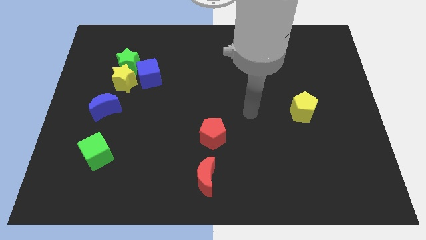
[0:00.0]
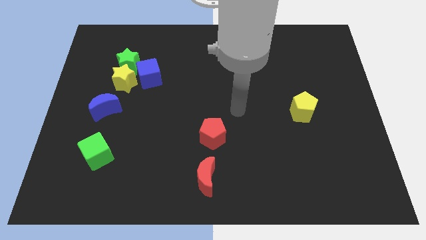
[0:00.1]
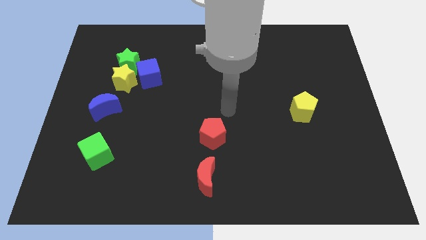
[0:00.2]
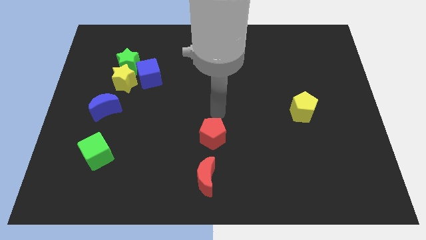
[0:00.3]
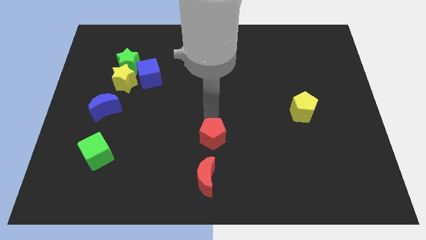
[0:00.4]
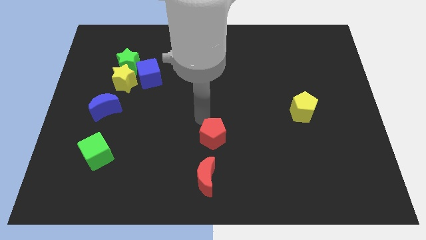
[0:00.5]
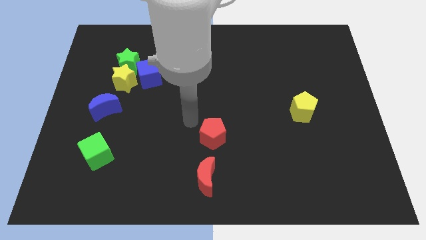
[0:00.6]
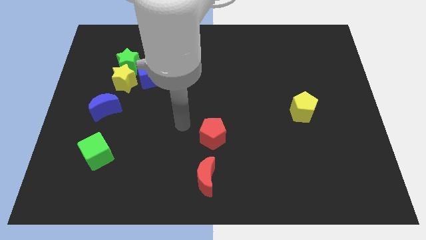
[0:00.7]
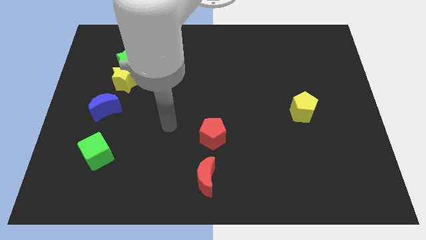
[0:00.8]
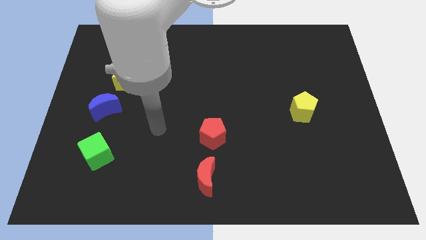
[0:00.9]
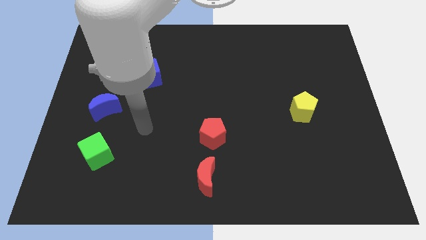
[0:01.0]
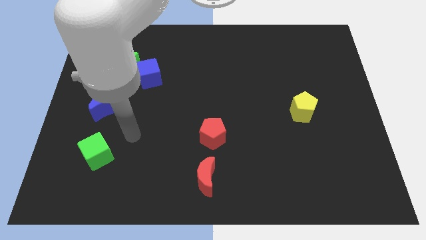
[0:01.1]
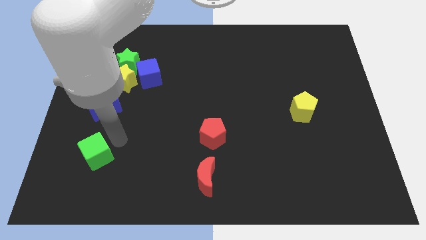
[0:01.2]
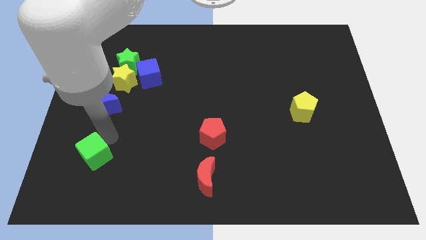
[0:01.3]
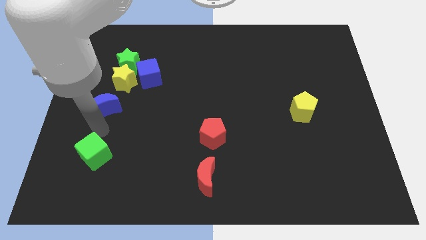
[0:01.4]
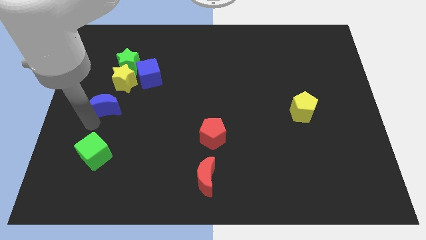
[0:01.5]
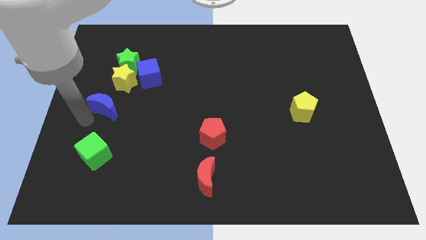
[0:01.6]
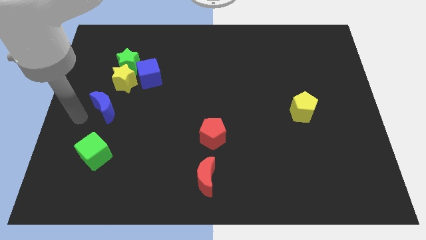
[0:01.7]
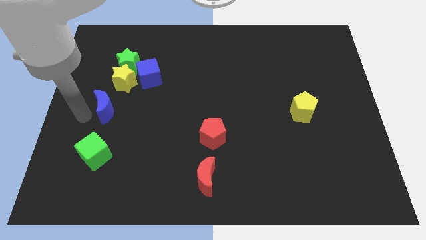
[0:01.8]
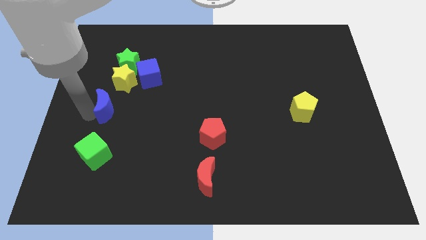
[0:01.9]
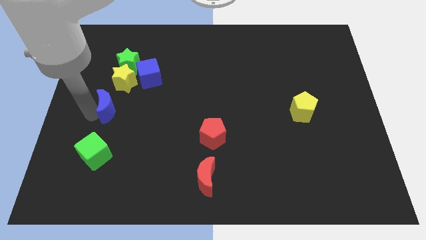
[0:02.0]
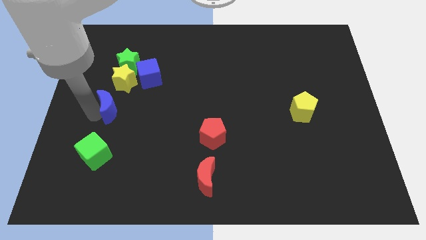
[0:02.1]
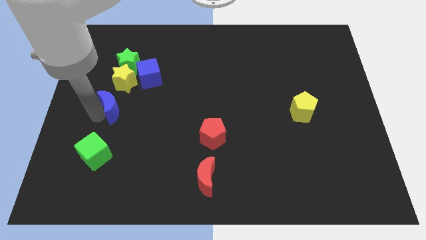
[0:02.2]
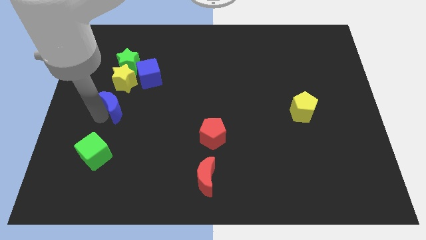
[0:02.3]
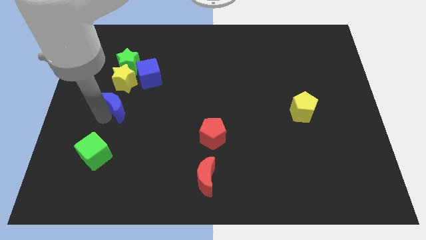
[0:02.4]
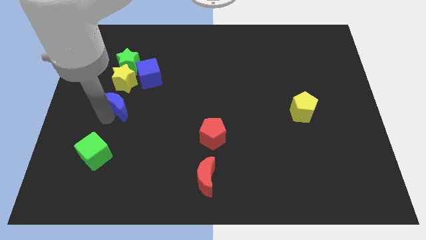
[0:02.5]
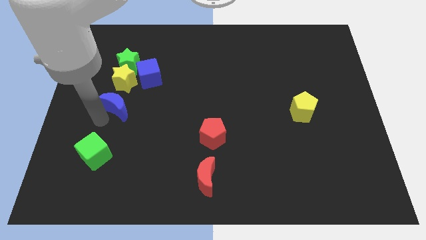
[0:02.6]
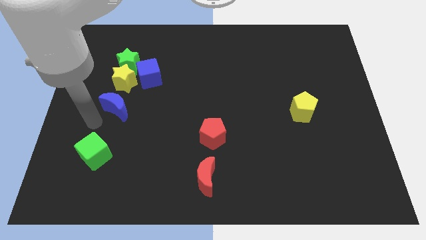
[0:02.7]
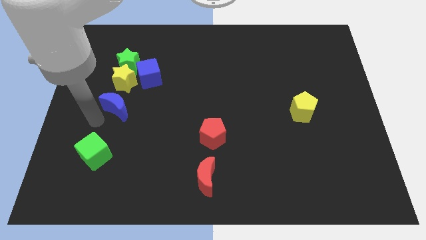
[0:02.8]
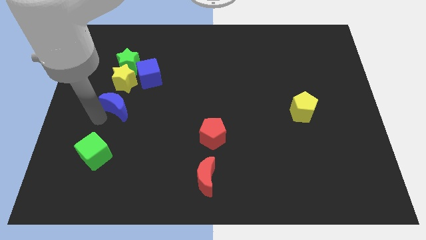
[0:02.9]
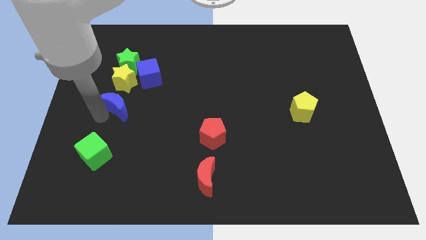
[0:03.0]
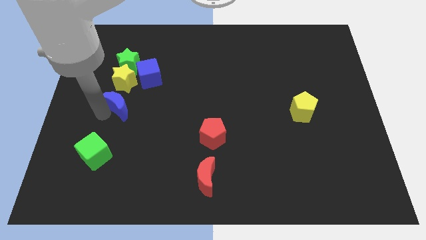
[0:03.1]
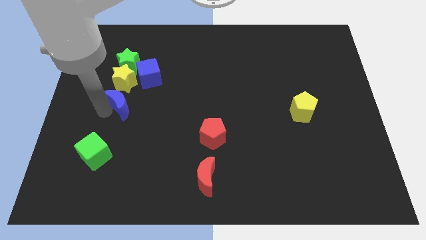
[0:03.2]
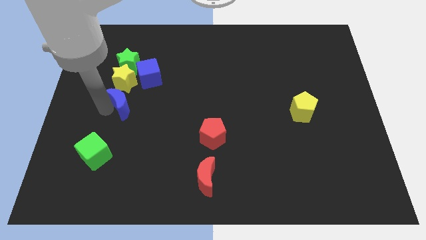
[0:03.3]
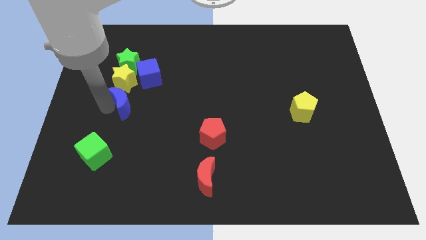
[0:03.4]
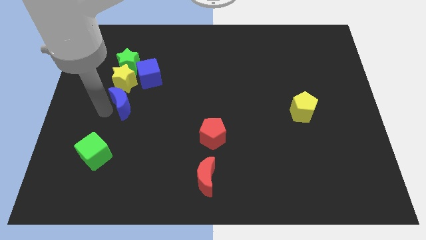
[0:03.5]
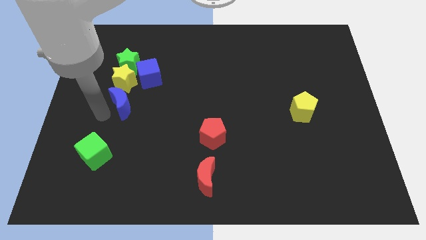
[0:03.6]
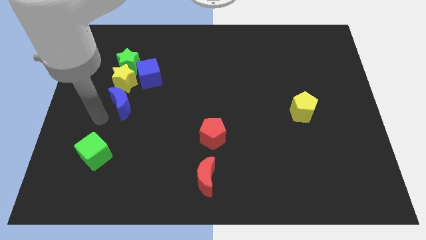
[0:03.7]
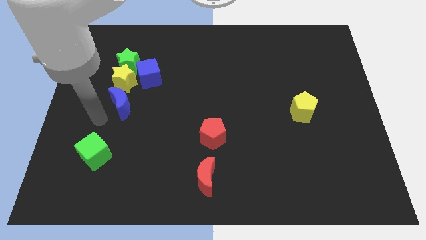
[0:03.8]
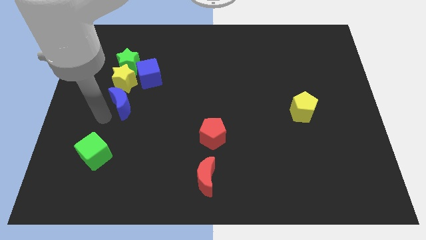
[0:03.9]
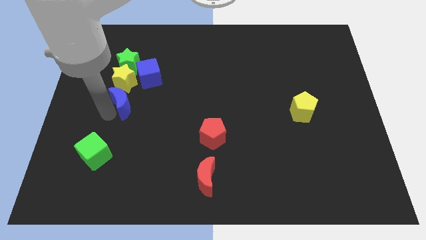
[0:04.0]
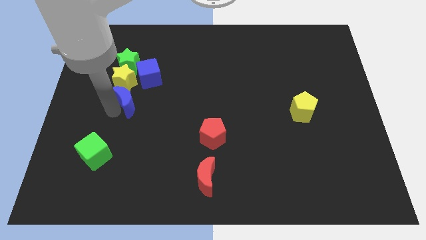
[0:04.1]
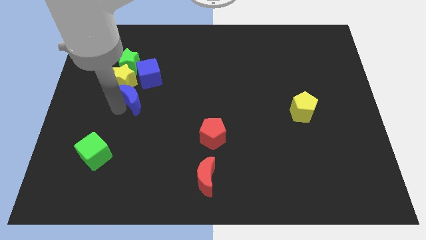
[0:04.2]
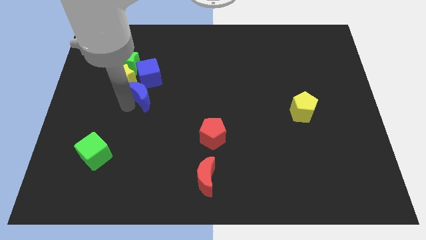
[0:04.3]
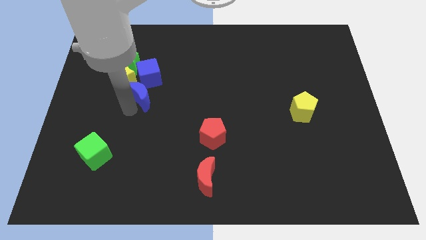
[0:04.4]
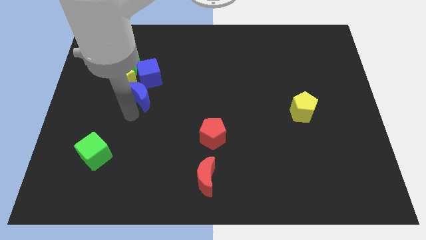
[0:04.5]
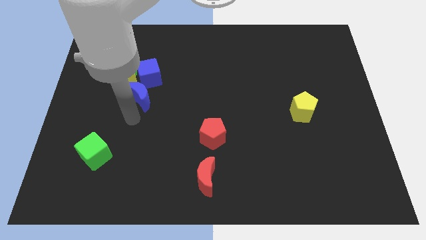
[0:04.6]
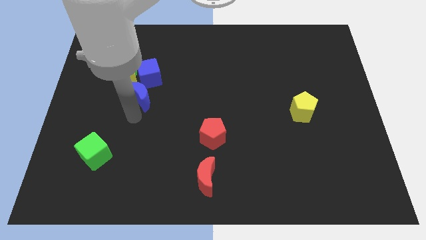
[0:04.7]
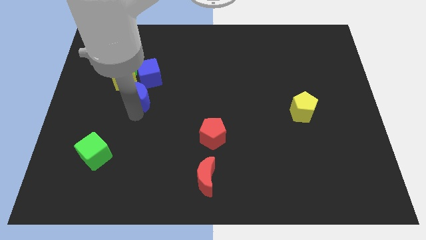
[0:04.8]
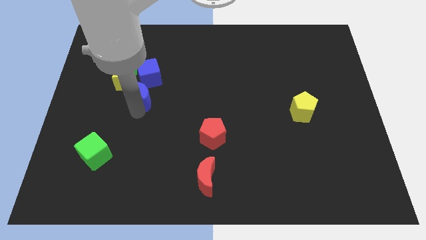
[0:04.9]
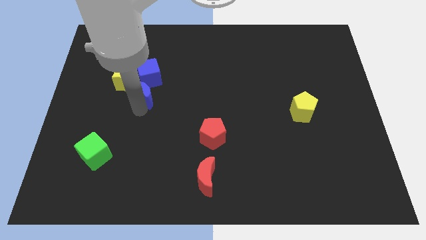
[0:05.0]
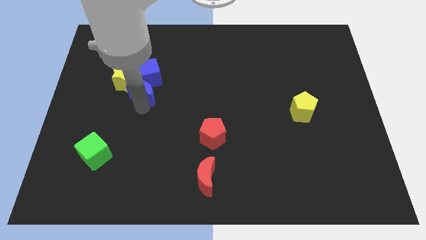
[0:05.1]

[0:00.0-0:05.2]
put the blue moon close to the blue cube

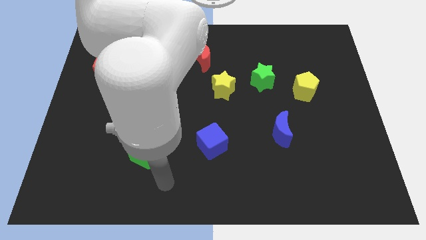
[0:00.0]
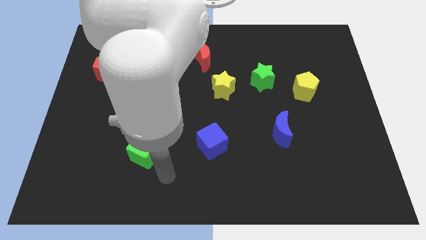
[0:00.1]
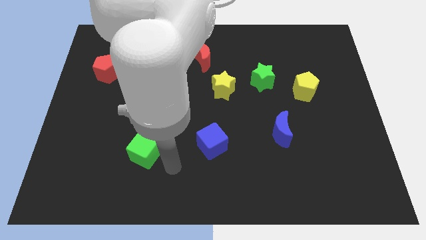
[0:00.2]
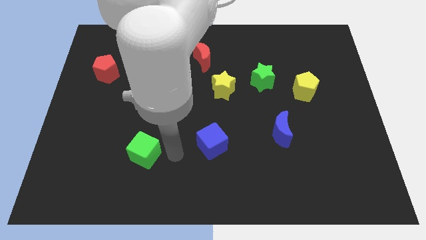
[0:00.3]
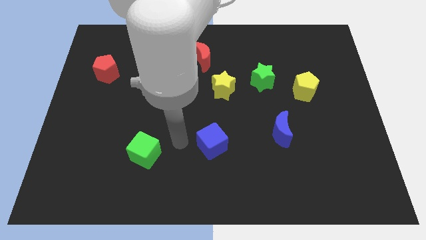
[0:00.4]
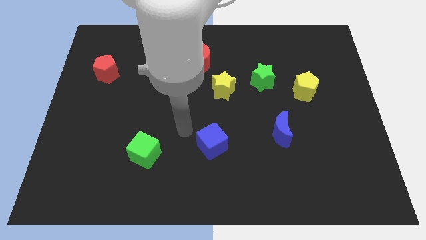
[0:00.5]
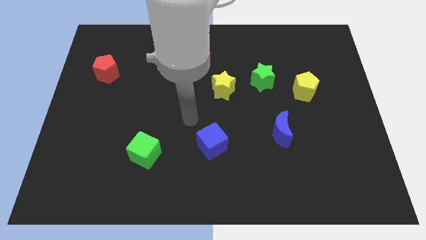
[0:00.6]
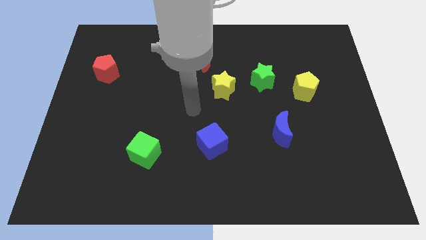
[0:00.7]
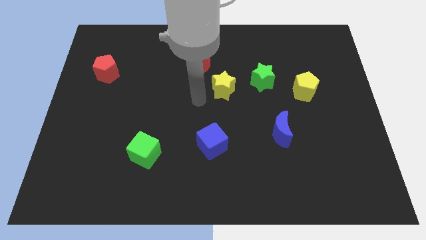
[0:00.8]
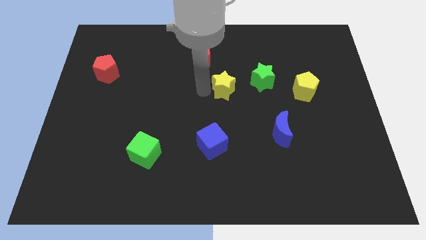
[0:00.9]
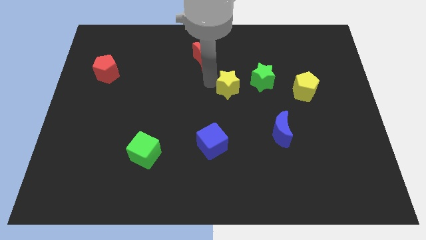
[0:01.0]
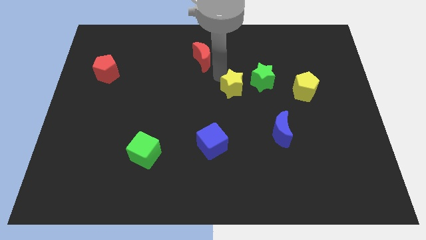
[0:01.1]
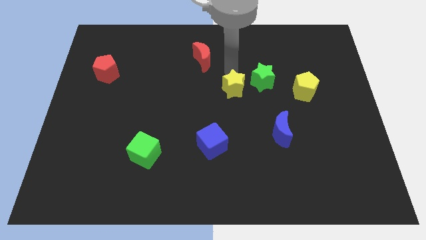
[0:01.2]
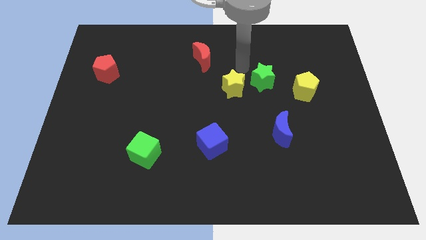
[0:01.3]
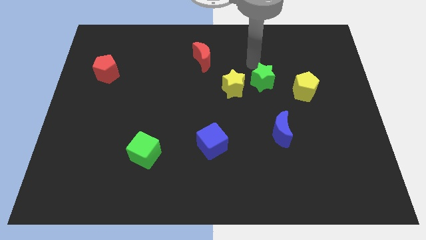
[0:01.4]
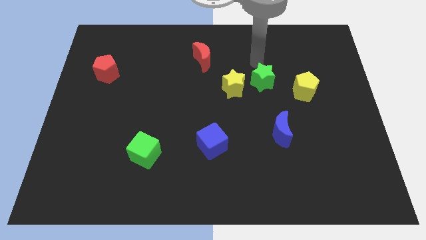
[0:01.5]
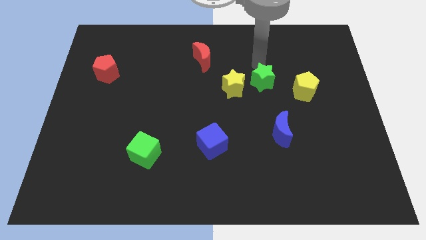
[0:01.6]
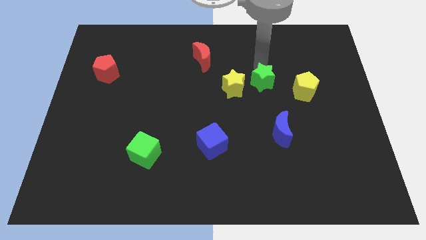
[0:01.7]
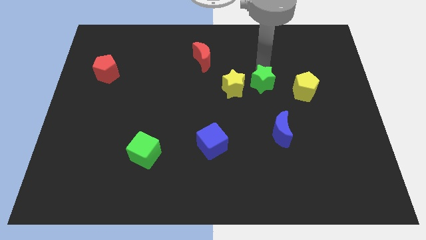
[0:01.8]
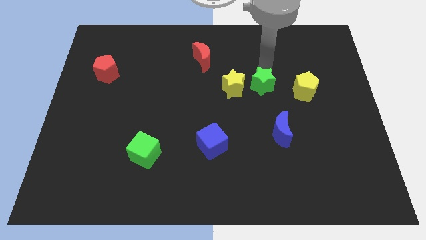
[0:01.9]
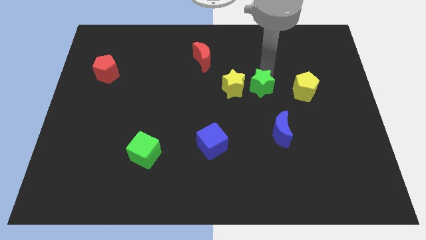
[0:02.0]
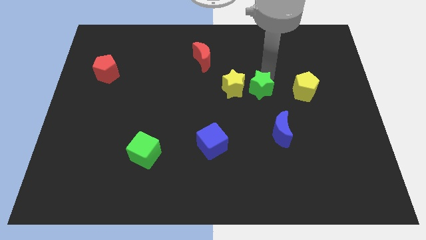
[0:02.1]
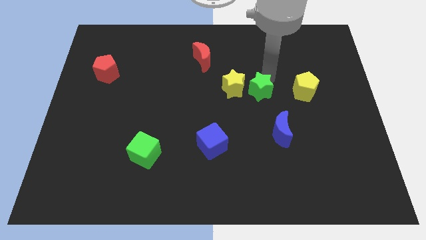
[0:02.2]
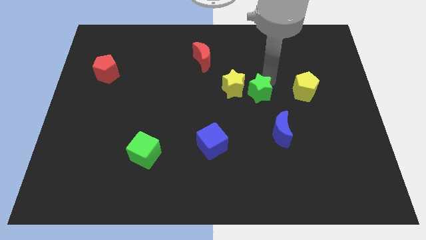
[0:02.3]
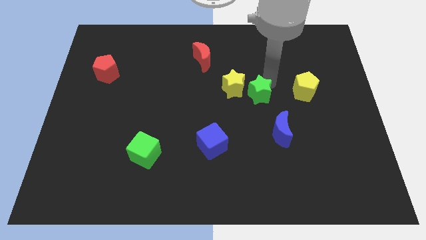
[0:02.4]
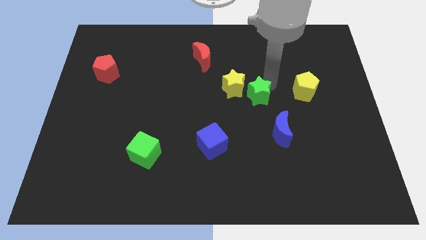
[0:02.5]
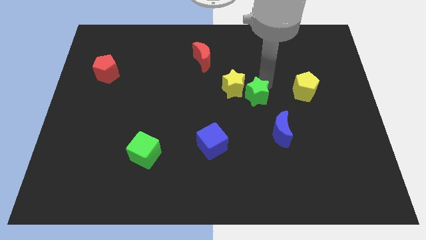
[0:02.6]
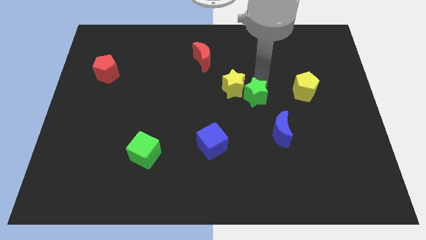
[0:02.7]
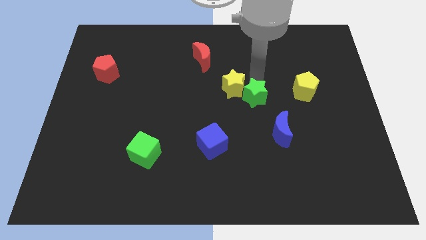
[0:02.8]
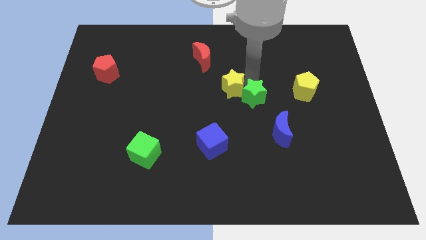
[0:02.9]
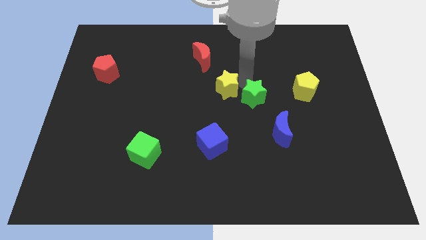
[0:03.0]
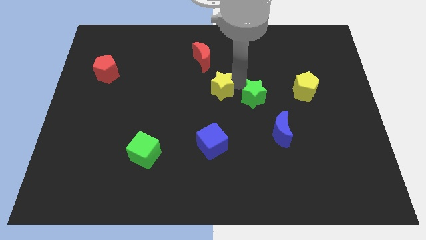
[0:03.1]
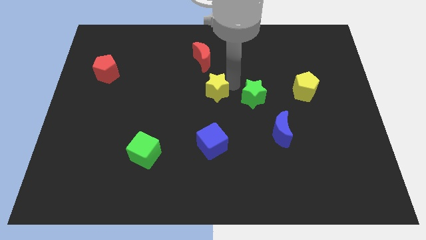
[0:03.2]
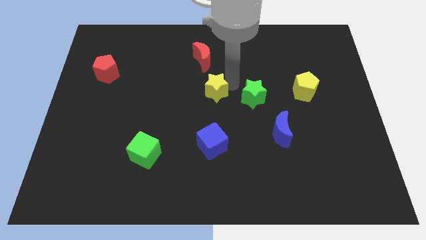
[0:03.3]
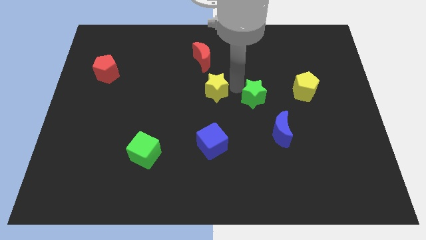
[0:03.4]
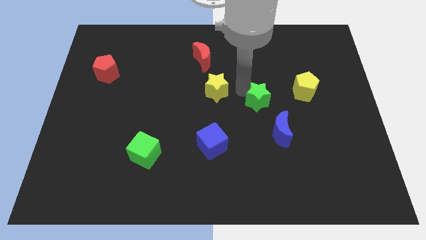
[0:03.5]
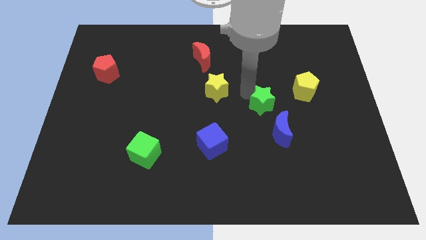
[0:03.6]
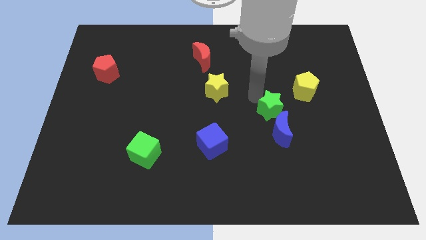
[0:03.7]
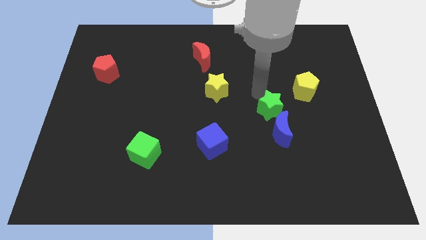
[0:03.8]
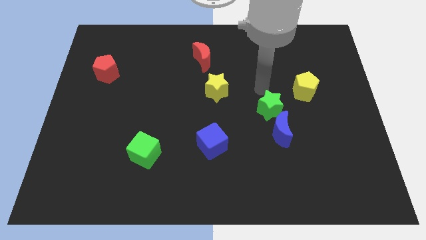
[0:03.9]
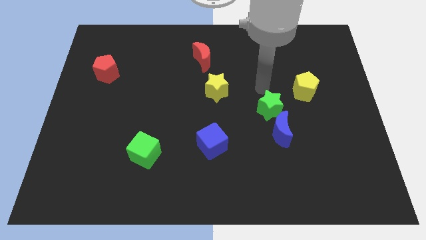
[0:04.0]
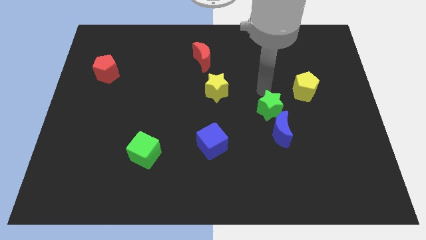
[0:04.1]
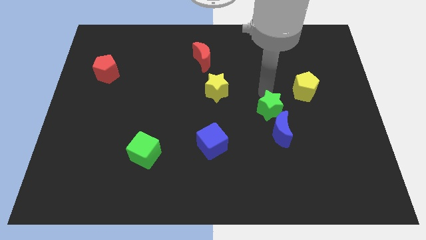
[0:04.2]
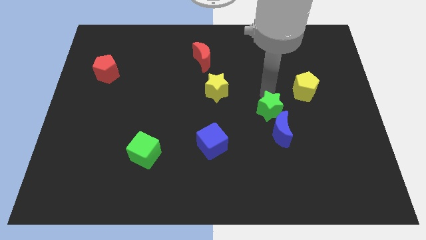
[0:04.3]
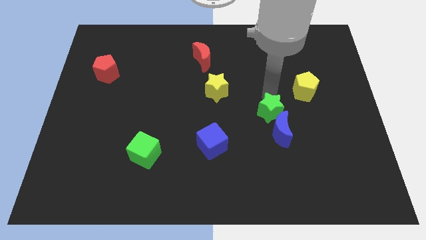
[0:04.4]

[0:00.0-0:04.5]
push the green star next to the blue moon
